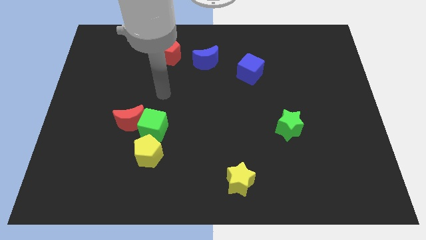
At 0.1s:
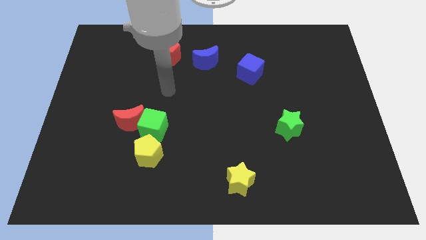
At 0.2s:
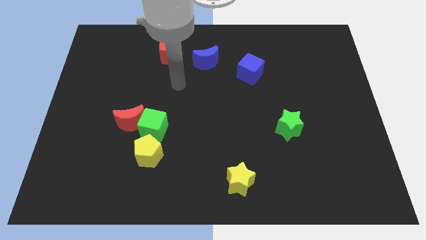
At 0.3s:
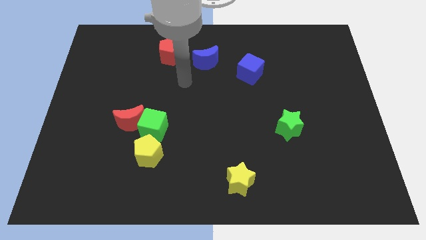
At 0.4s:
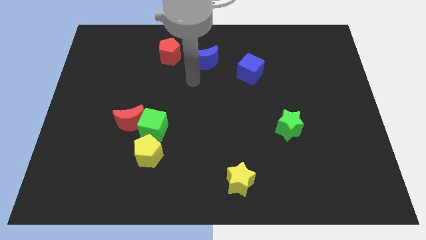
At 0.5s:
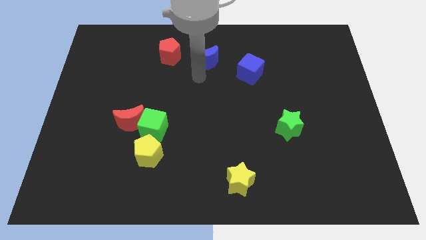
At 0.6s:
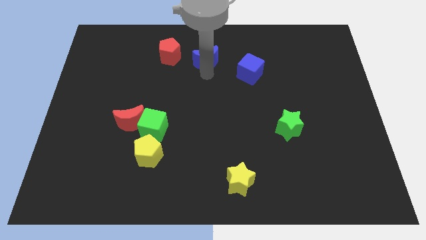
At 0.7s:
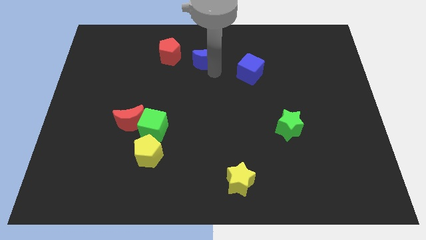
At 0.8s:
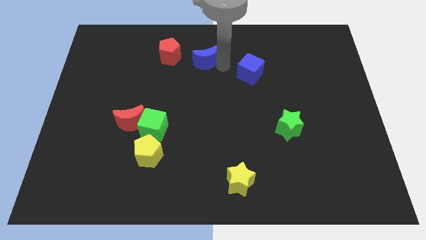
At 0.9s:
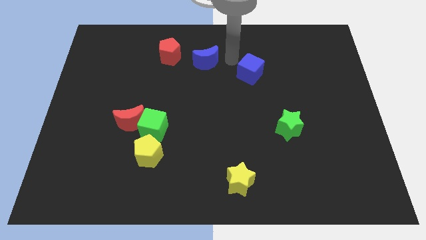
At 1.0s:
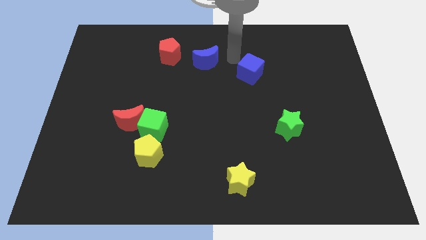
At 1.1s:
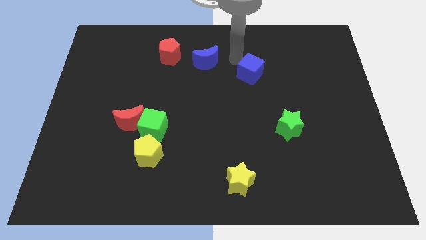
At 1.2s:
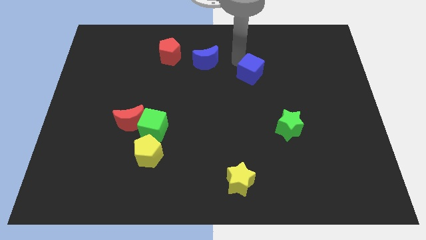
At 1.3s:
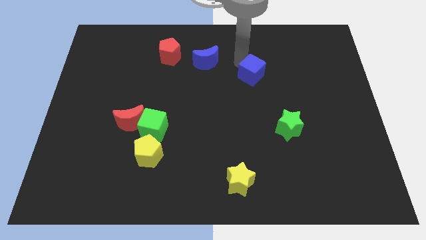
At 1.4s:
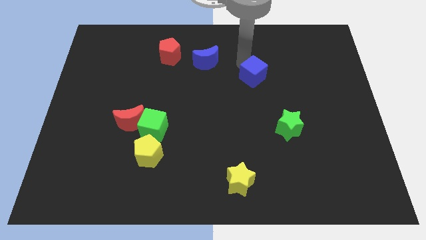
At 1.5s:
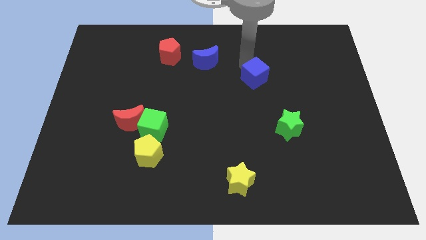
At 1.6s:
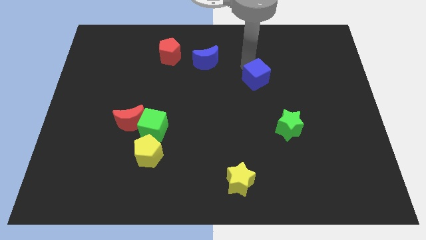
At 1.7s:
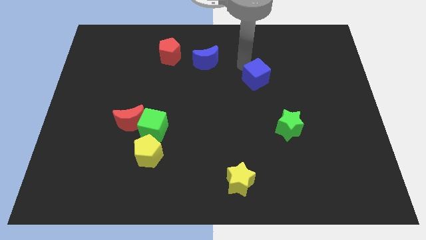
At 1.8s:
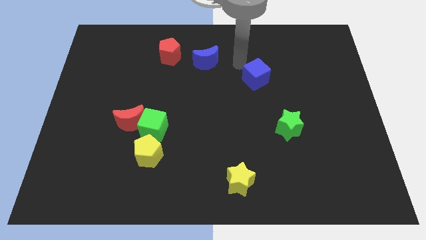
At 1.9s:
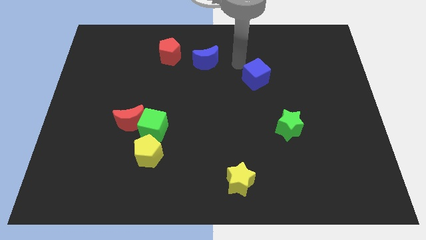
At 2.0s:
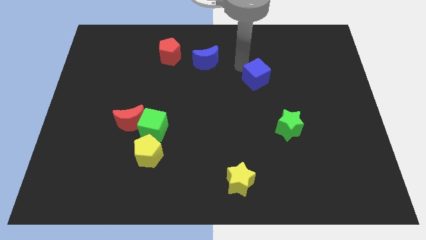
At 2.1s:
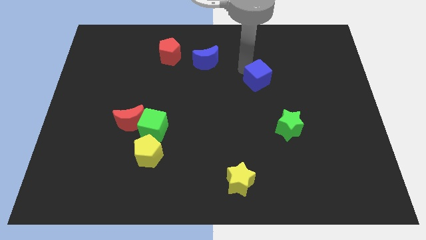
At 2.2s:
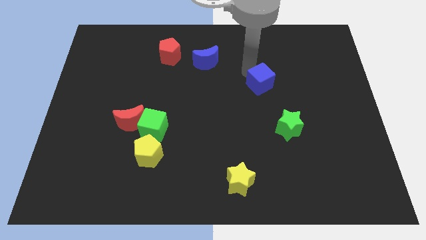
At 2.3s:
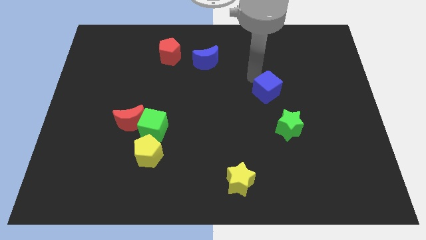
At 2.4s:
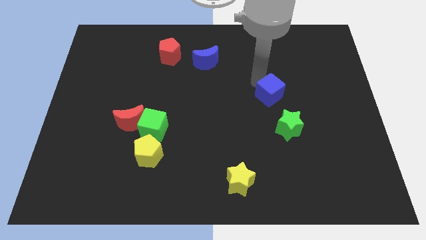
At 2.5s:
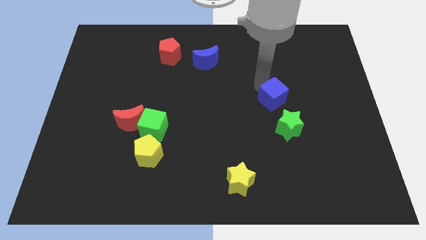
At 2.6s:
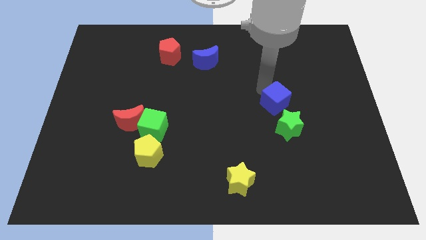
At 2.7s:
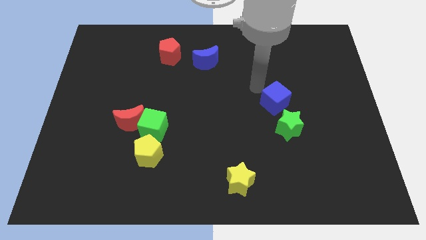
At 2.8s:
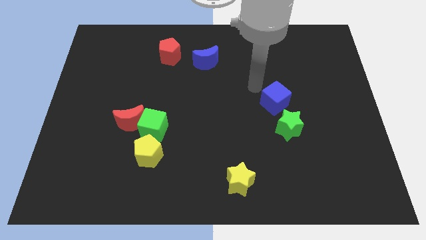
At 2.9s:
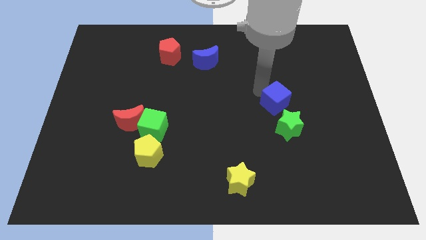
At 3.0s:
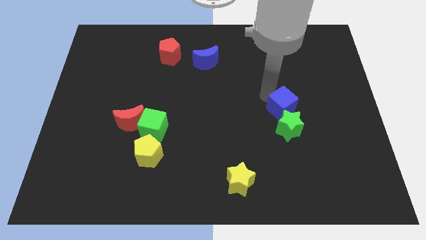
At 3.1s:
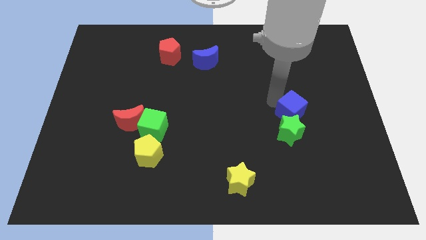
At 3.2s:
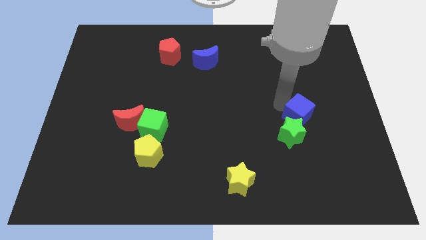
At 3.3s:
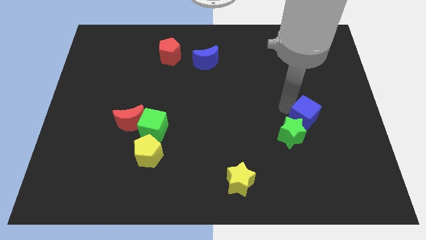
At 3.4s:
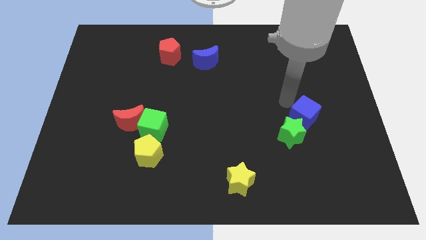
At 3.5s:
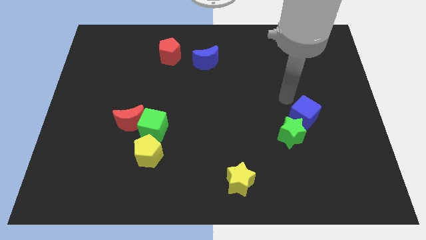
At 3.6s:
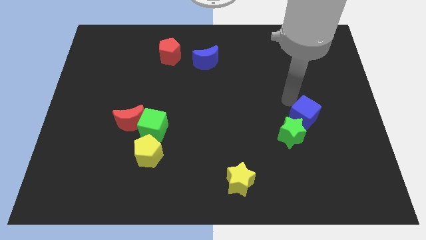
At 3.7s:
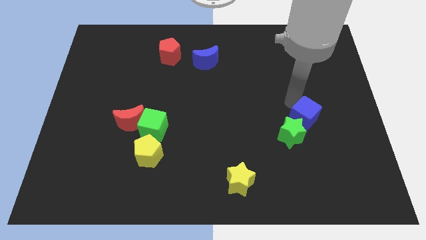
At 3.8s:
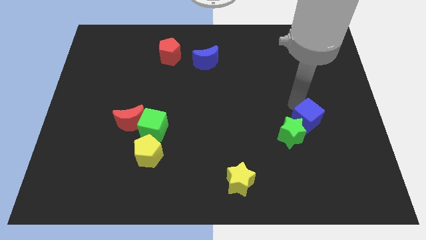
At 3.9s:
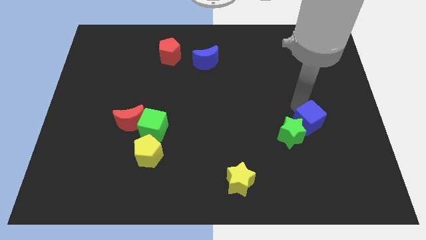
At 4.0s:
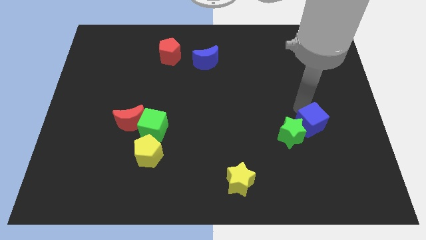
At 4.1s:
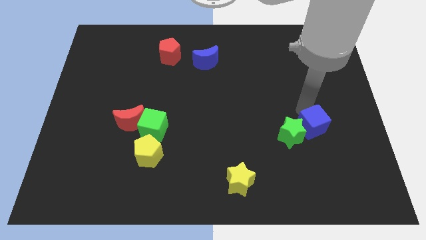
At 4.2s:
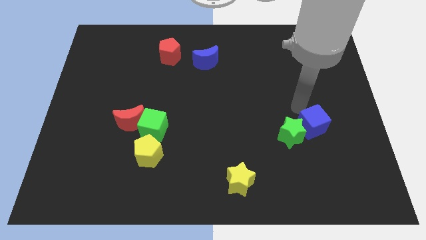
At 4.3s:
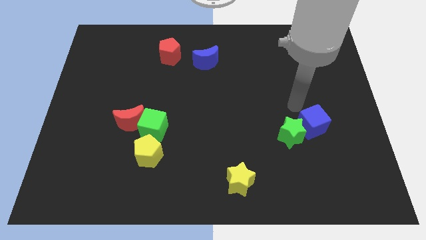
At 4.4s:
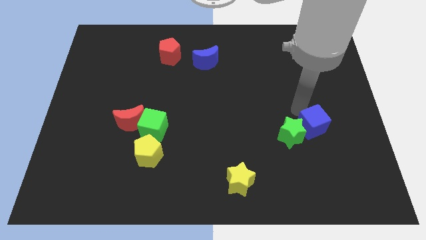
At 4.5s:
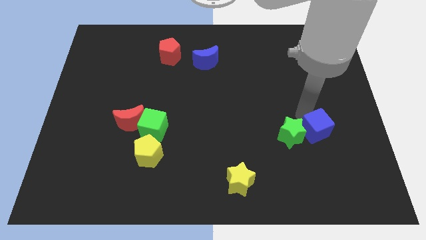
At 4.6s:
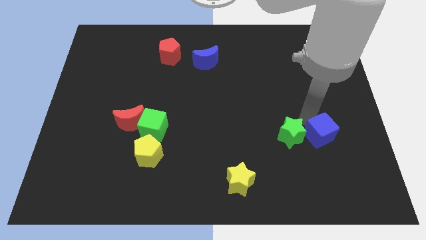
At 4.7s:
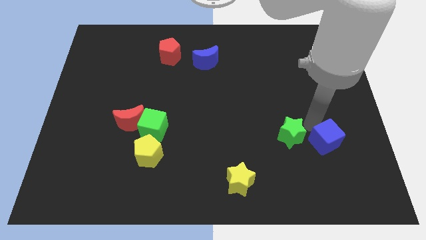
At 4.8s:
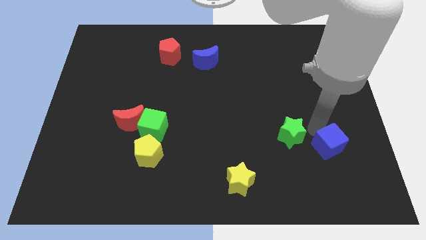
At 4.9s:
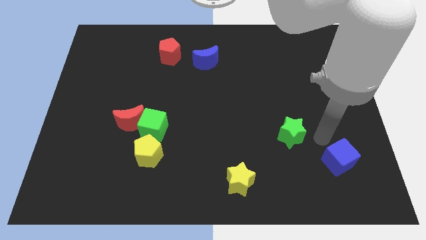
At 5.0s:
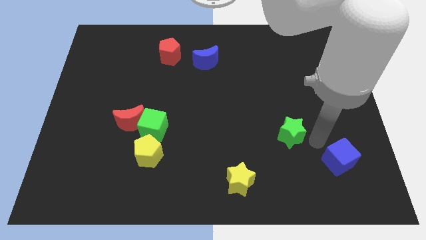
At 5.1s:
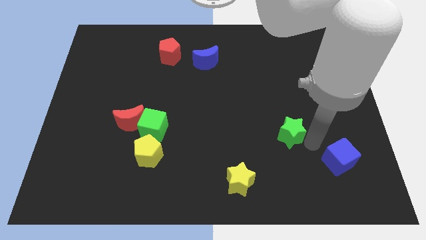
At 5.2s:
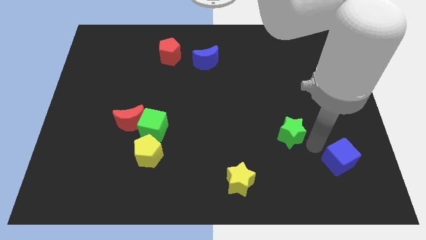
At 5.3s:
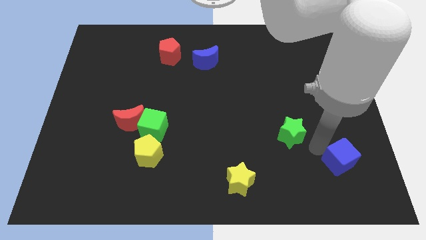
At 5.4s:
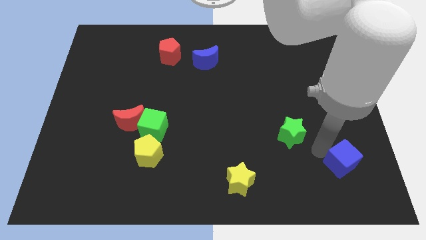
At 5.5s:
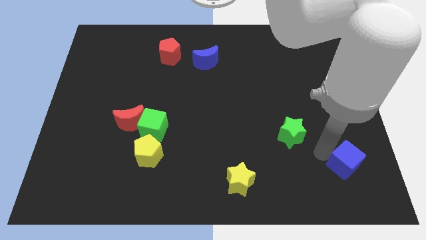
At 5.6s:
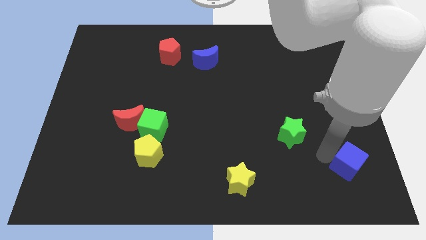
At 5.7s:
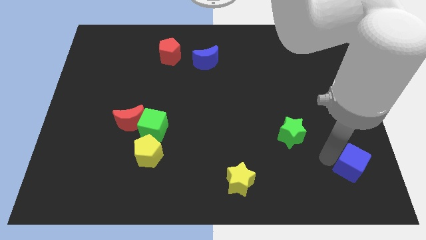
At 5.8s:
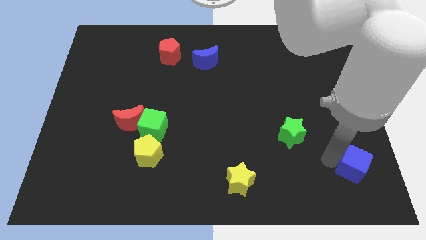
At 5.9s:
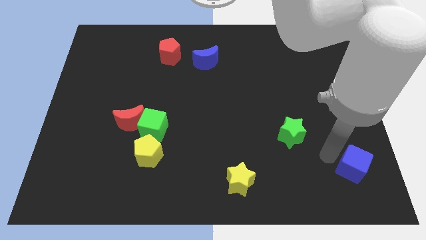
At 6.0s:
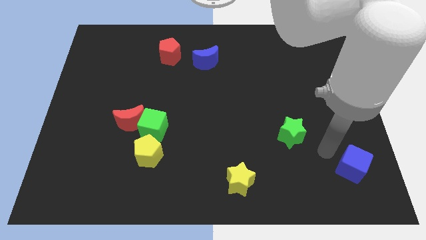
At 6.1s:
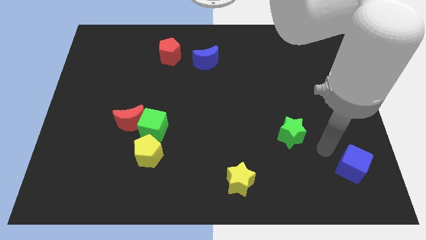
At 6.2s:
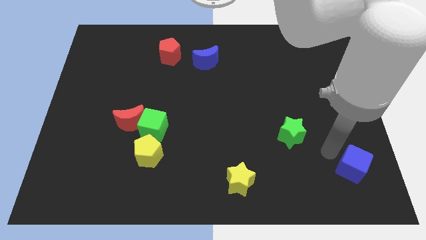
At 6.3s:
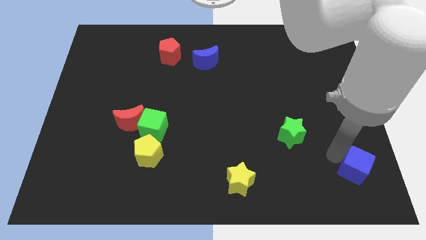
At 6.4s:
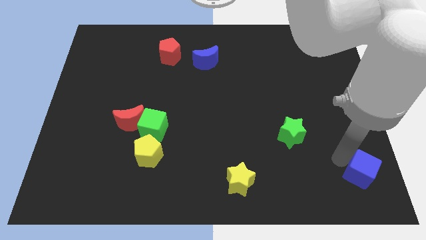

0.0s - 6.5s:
move the blue cube to the bottom right of the board

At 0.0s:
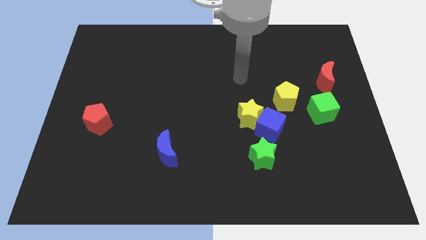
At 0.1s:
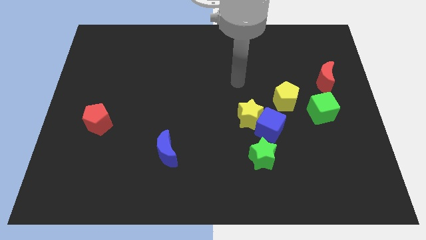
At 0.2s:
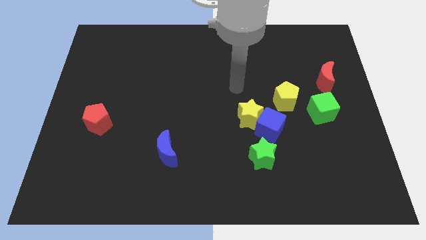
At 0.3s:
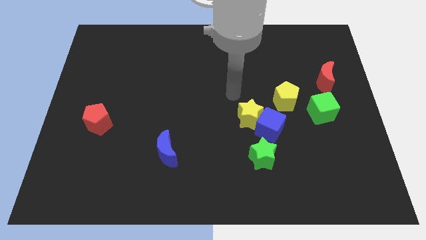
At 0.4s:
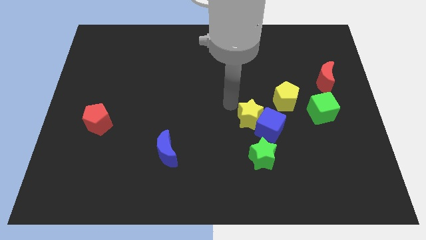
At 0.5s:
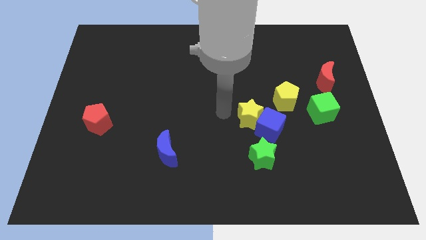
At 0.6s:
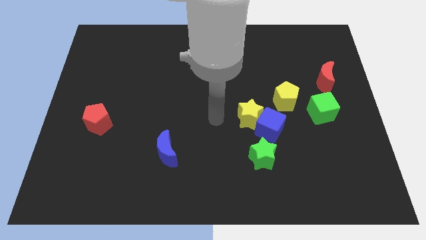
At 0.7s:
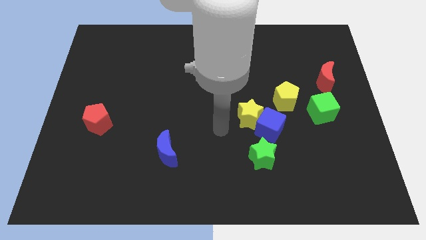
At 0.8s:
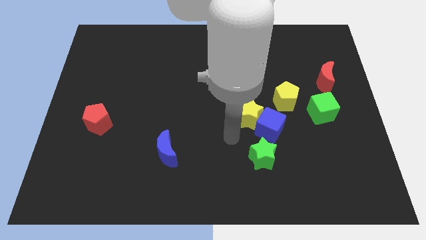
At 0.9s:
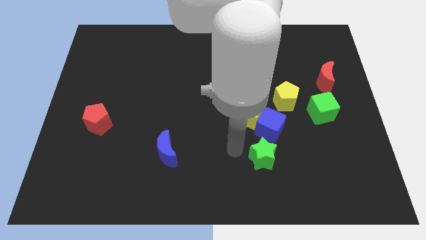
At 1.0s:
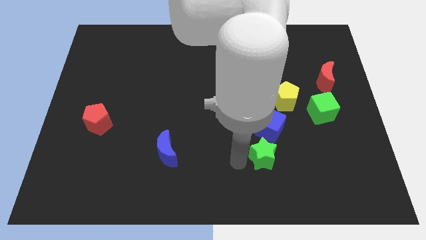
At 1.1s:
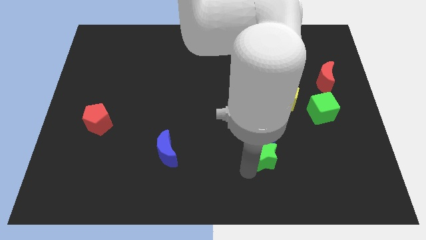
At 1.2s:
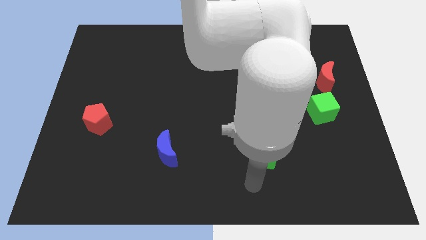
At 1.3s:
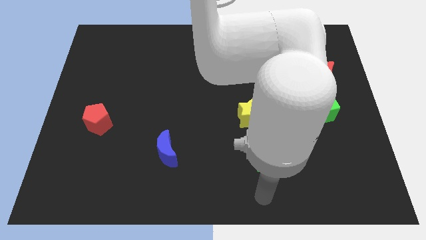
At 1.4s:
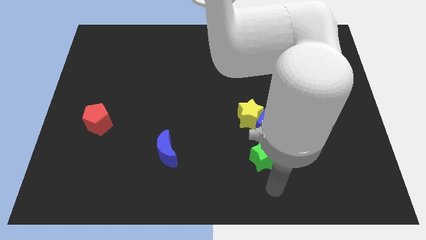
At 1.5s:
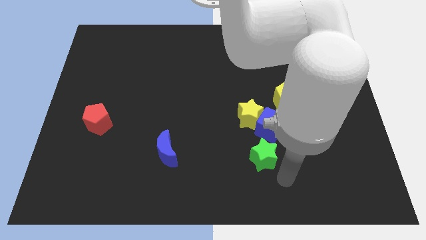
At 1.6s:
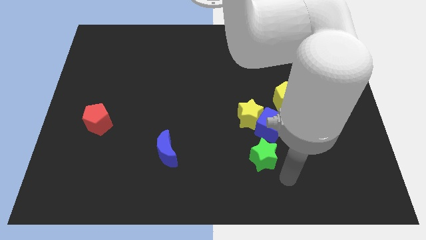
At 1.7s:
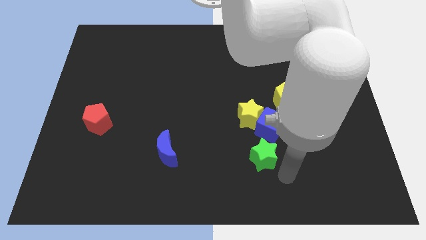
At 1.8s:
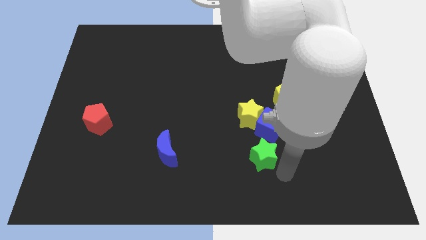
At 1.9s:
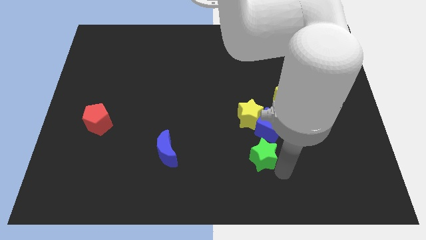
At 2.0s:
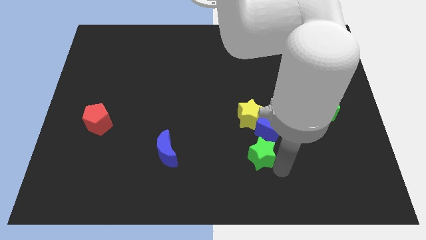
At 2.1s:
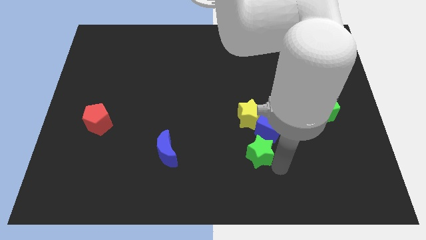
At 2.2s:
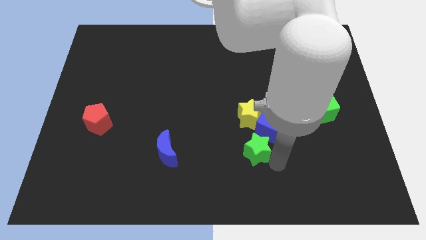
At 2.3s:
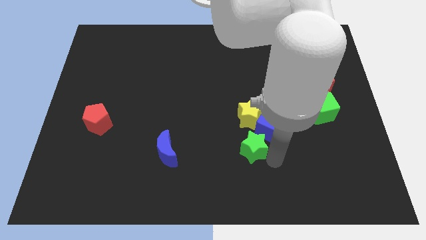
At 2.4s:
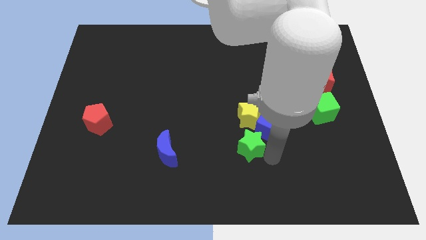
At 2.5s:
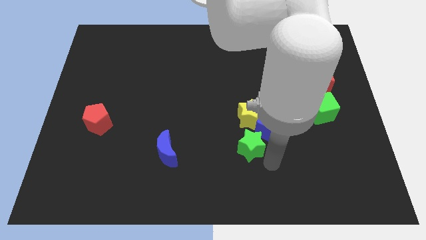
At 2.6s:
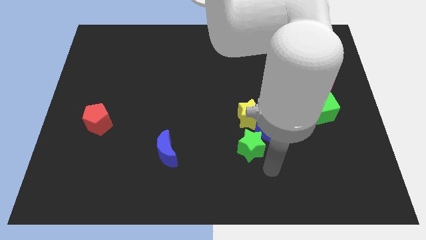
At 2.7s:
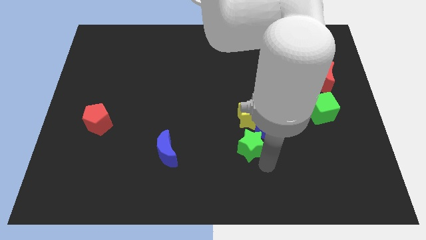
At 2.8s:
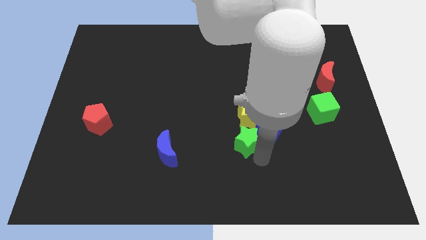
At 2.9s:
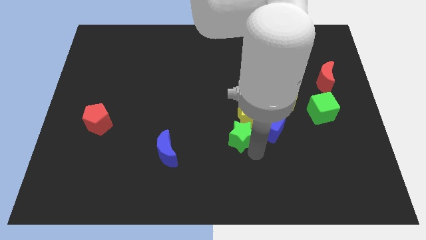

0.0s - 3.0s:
slide the green star to the center of the board
